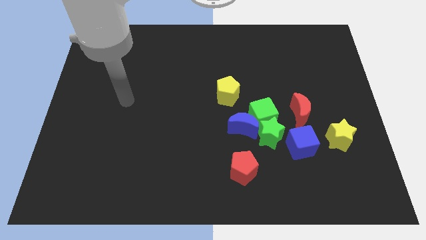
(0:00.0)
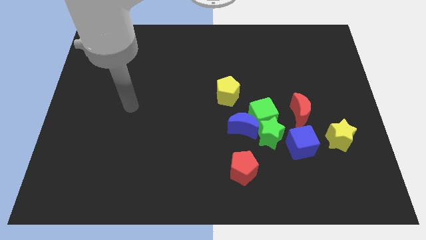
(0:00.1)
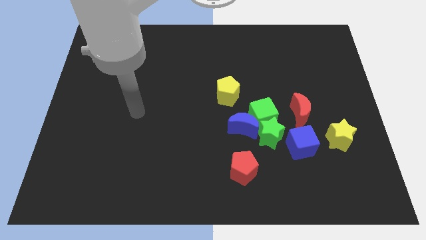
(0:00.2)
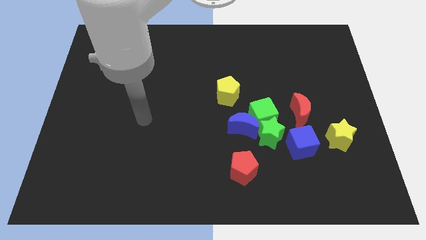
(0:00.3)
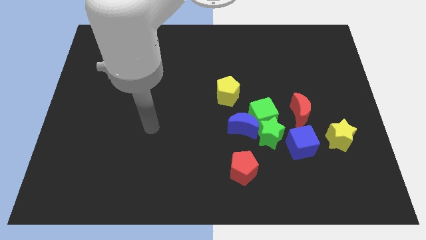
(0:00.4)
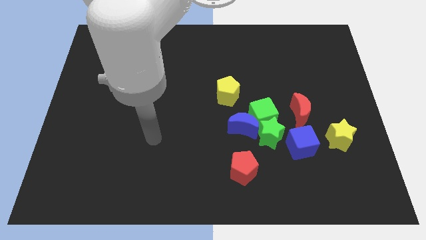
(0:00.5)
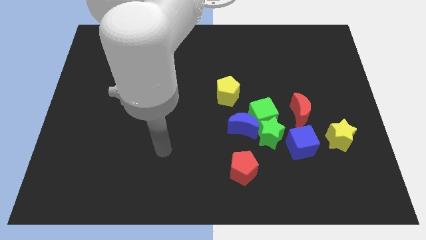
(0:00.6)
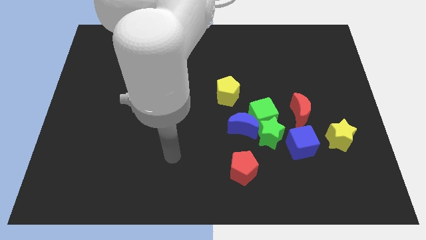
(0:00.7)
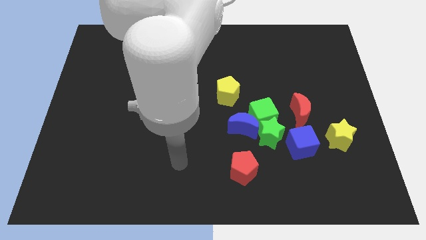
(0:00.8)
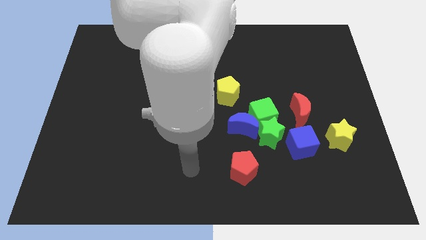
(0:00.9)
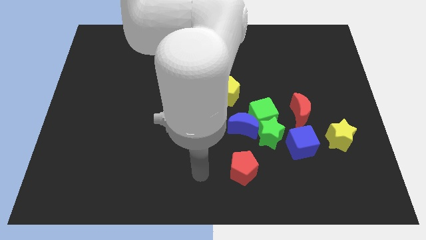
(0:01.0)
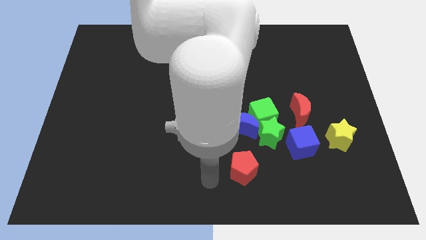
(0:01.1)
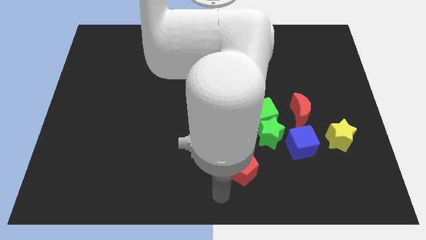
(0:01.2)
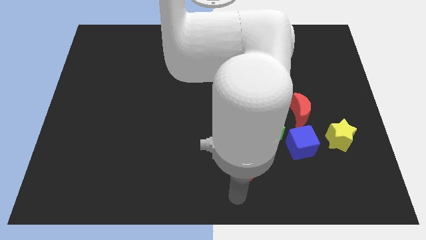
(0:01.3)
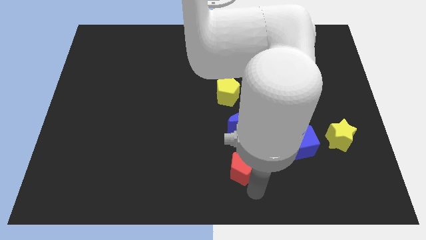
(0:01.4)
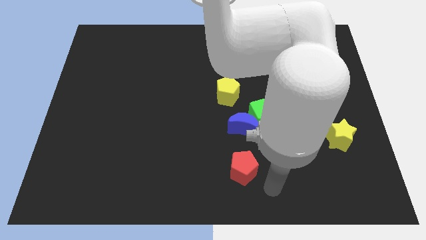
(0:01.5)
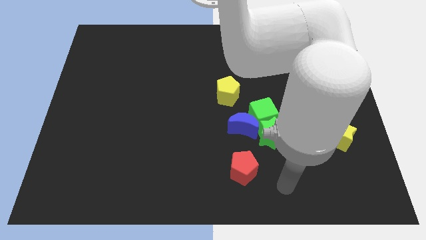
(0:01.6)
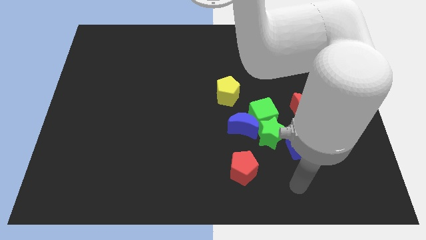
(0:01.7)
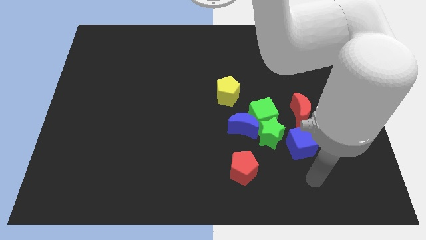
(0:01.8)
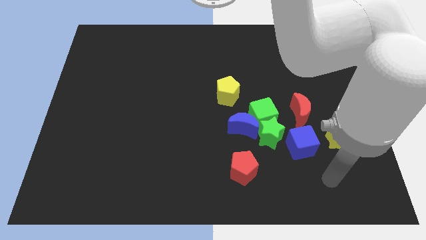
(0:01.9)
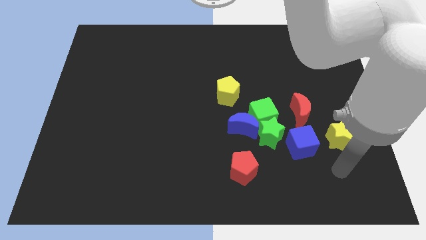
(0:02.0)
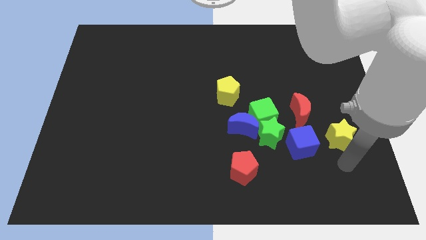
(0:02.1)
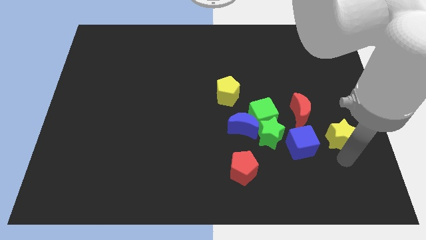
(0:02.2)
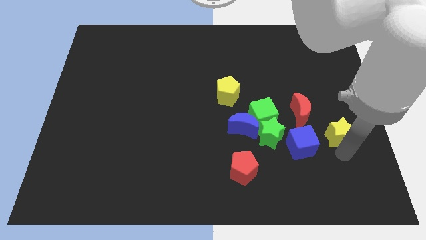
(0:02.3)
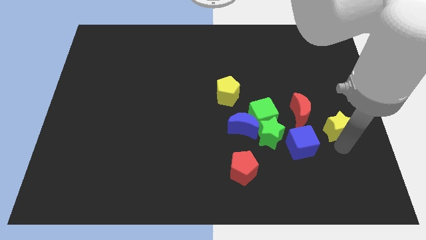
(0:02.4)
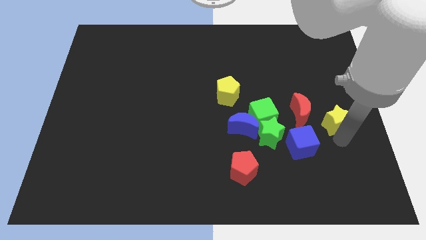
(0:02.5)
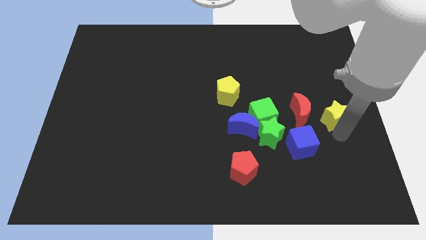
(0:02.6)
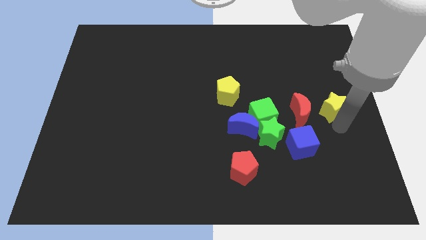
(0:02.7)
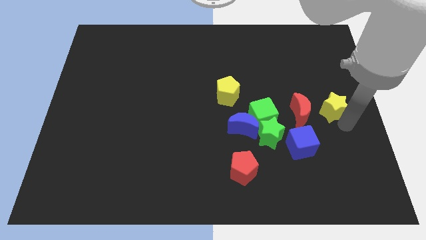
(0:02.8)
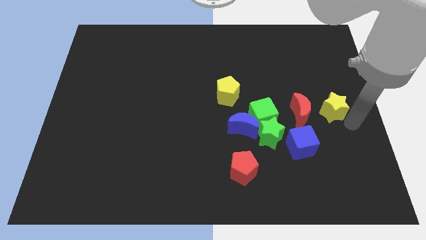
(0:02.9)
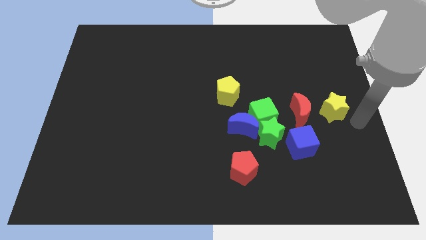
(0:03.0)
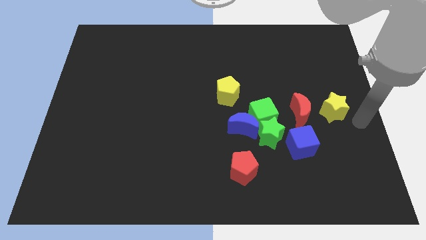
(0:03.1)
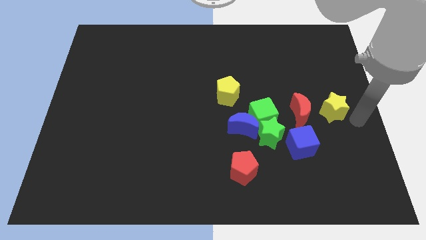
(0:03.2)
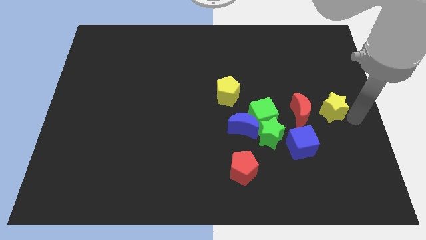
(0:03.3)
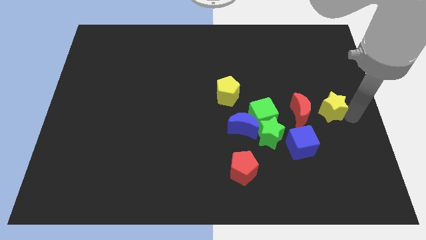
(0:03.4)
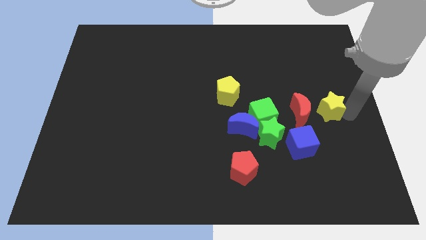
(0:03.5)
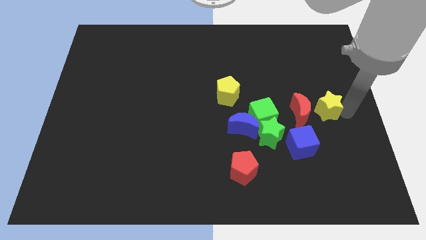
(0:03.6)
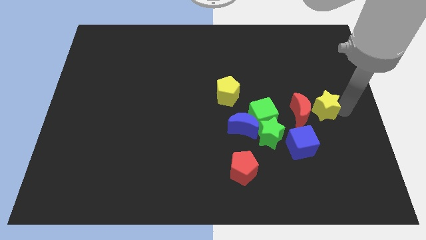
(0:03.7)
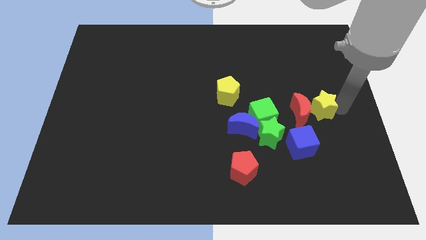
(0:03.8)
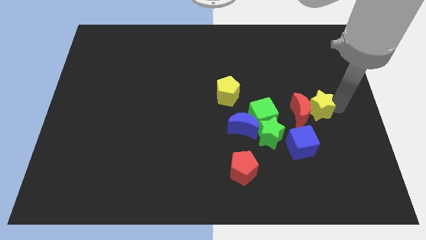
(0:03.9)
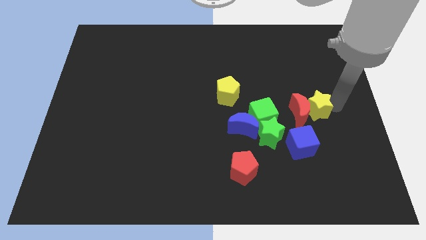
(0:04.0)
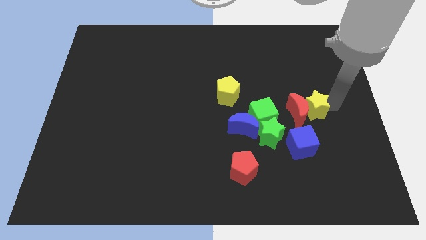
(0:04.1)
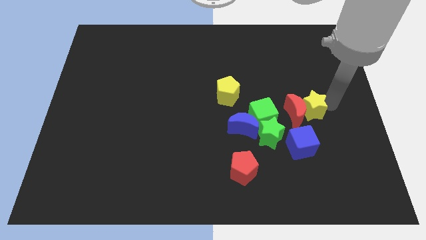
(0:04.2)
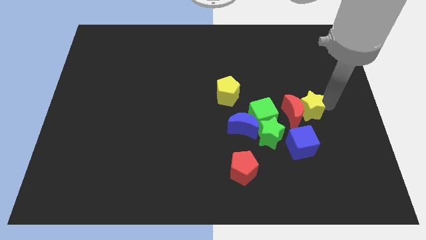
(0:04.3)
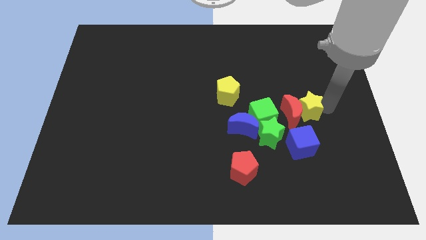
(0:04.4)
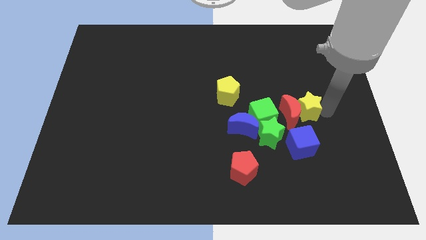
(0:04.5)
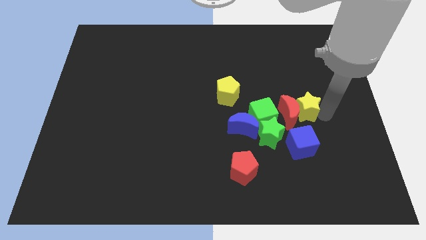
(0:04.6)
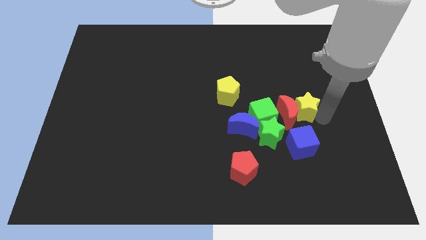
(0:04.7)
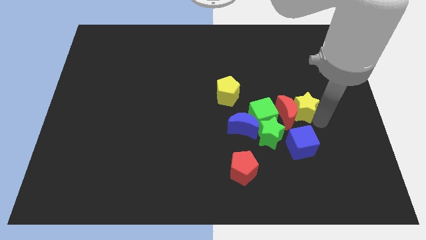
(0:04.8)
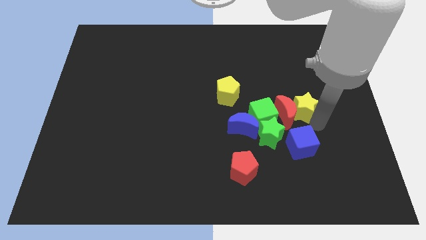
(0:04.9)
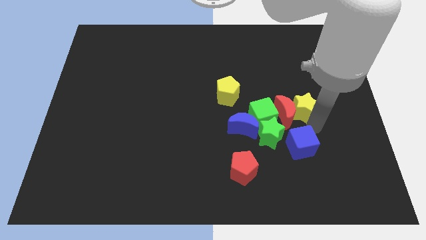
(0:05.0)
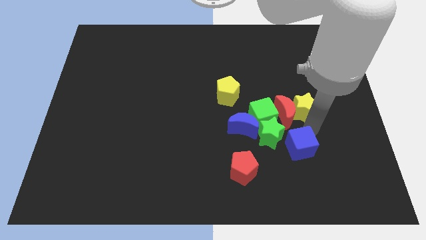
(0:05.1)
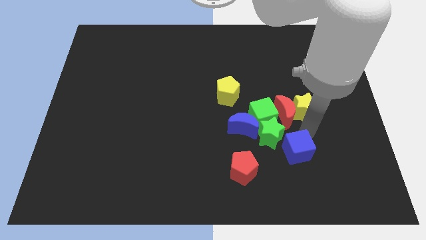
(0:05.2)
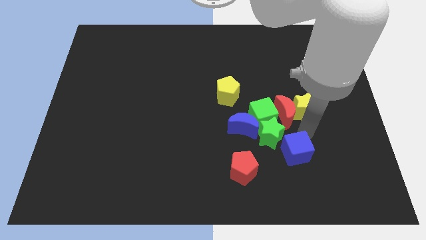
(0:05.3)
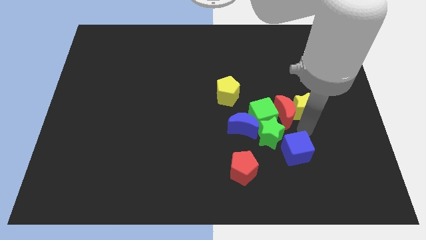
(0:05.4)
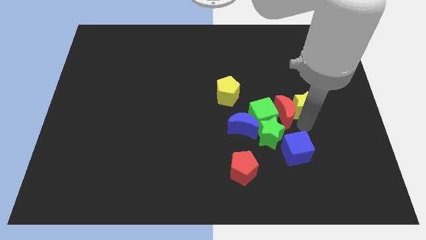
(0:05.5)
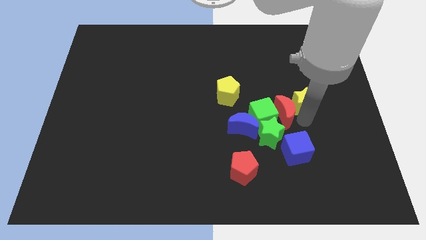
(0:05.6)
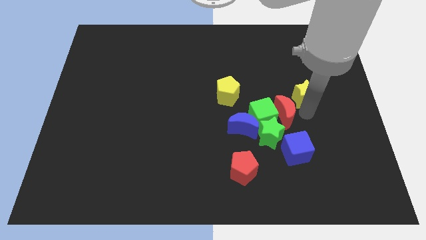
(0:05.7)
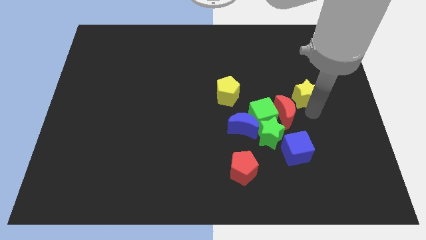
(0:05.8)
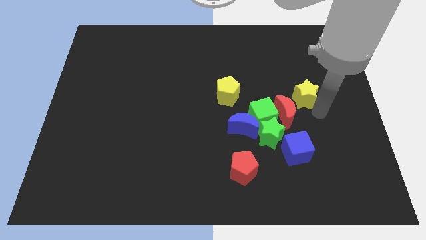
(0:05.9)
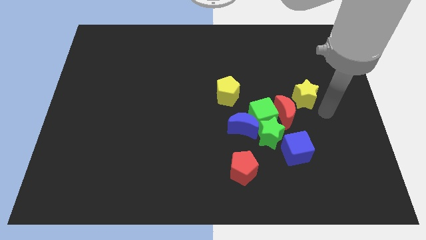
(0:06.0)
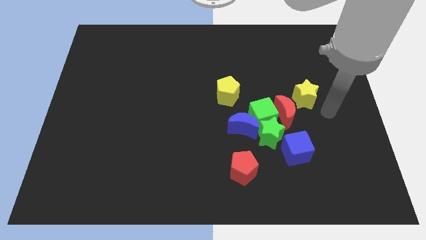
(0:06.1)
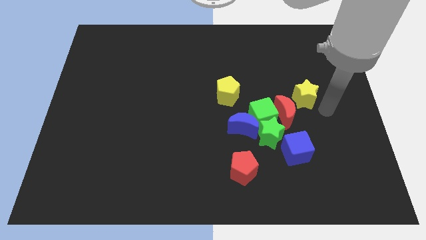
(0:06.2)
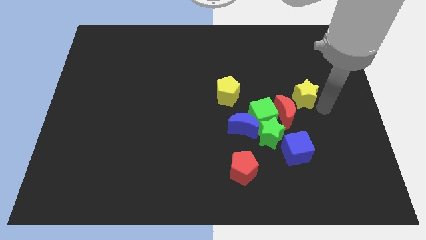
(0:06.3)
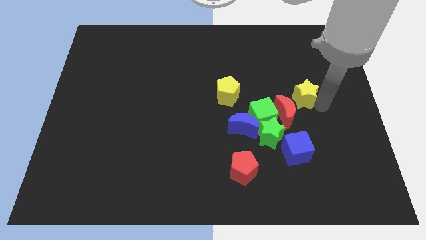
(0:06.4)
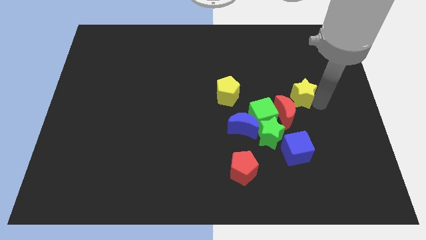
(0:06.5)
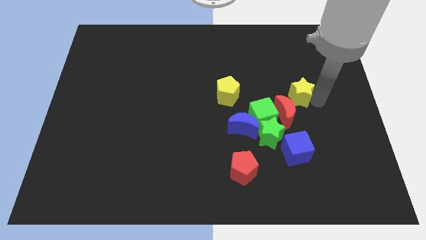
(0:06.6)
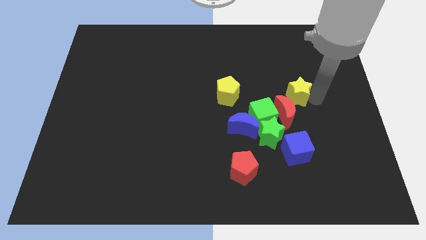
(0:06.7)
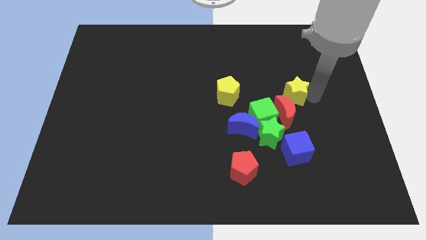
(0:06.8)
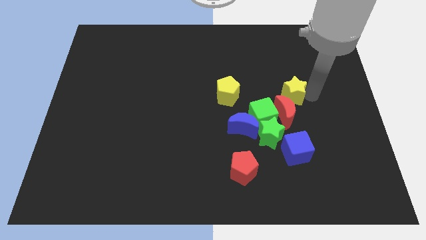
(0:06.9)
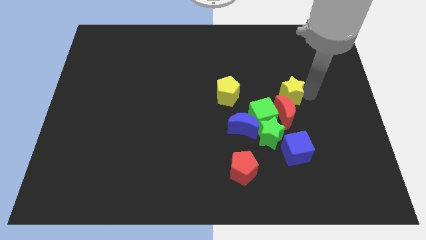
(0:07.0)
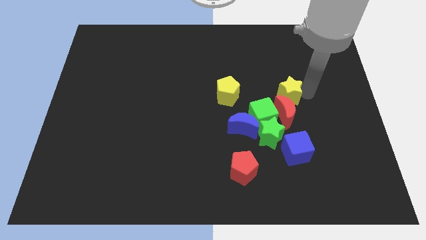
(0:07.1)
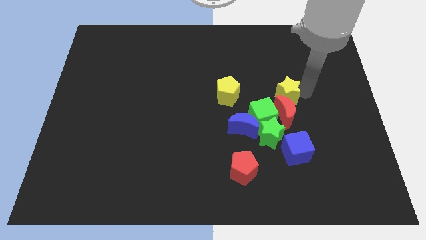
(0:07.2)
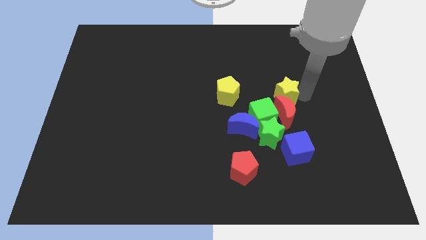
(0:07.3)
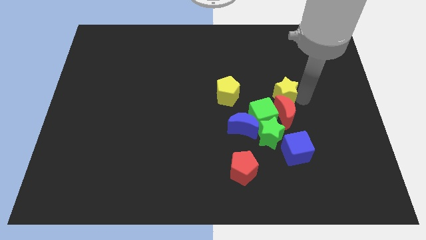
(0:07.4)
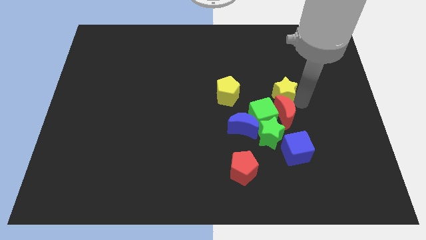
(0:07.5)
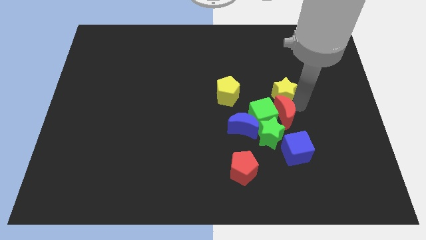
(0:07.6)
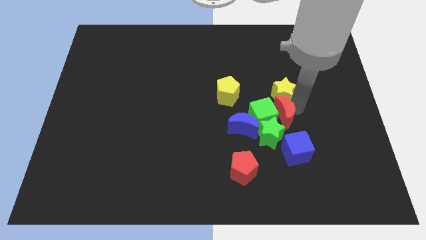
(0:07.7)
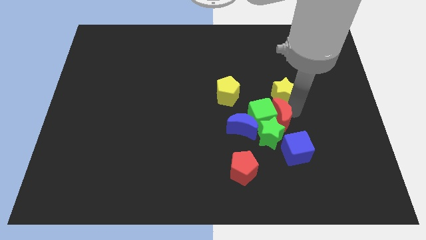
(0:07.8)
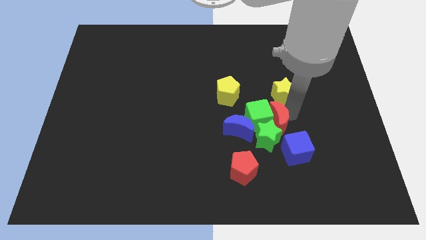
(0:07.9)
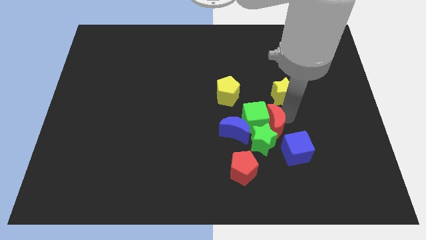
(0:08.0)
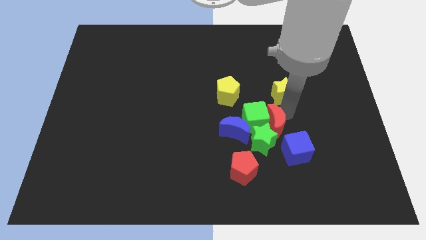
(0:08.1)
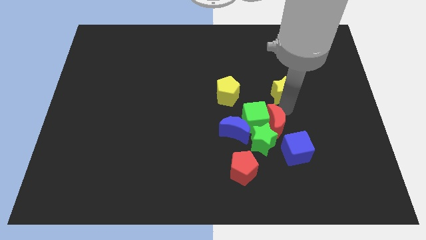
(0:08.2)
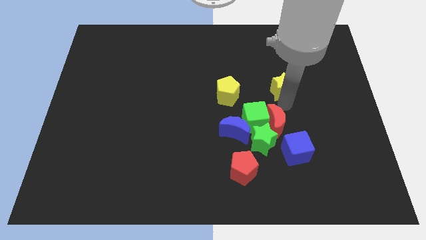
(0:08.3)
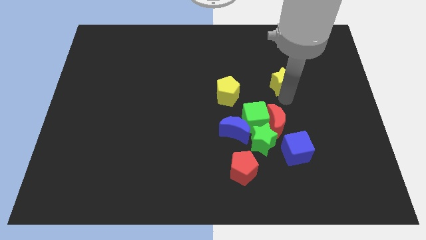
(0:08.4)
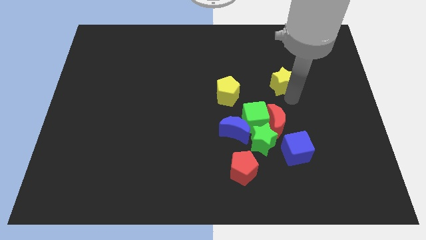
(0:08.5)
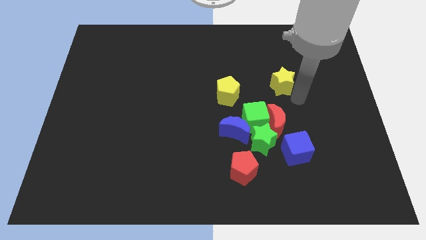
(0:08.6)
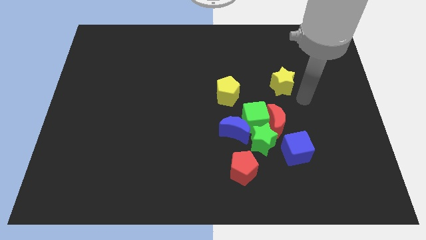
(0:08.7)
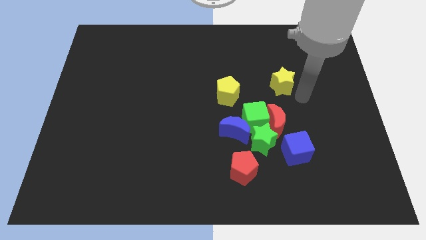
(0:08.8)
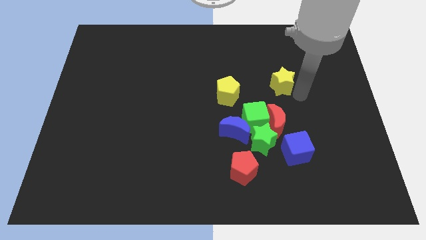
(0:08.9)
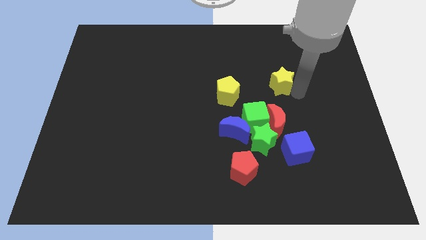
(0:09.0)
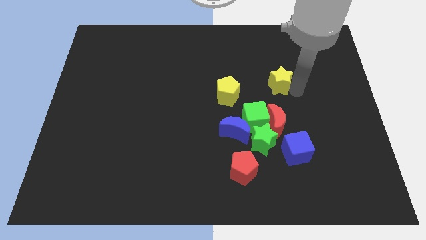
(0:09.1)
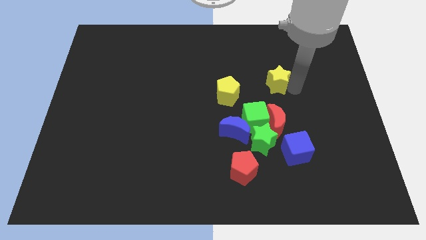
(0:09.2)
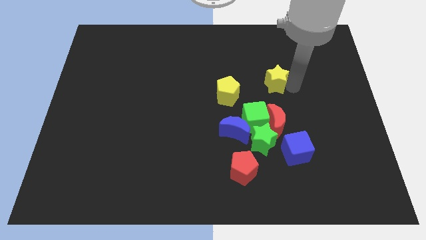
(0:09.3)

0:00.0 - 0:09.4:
move the yellow star up and to the left diagonally
